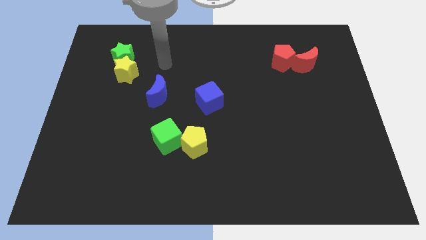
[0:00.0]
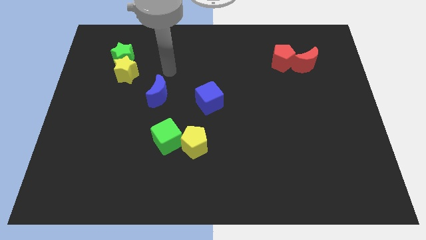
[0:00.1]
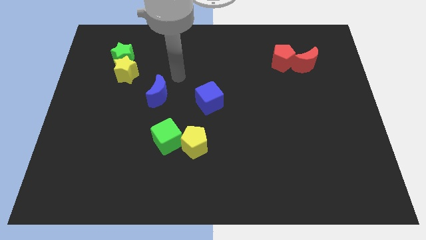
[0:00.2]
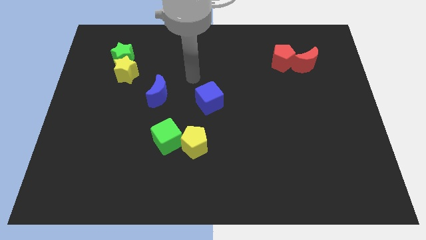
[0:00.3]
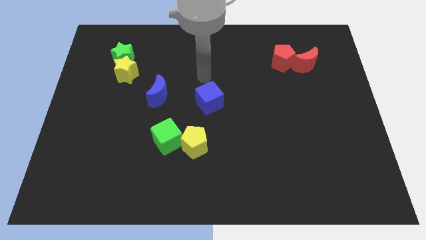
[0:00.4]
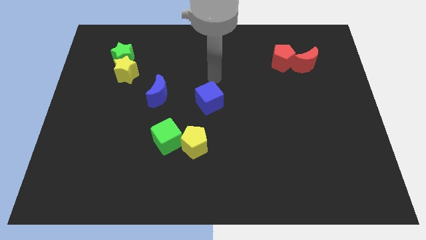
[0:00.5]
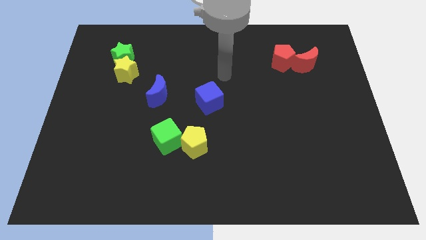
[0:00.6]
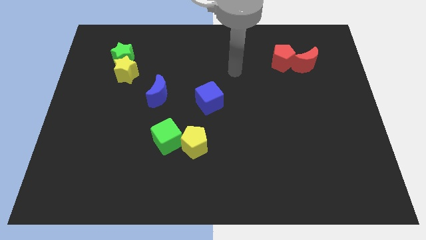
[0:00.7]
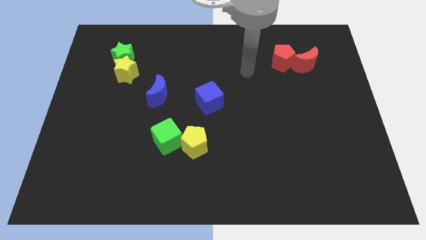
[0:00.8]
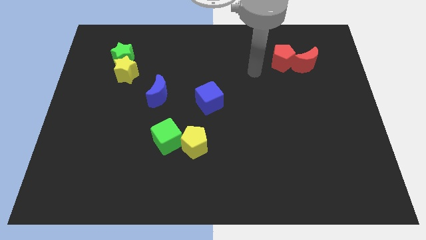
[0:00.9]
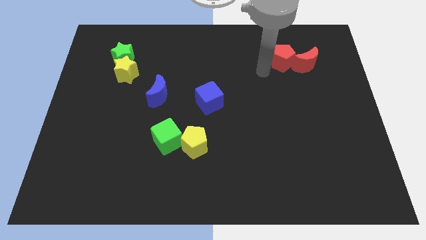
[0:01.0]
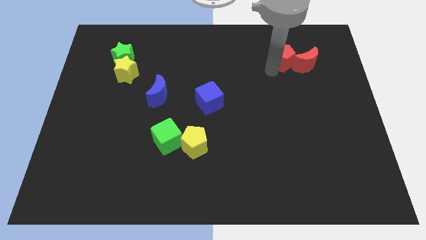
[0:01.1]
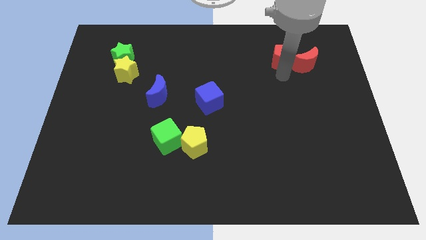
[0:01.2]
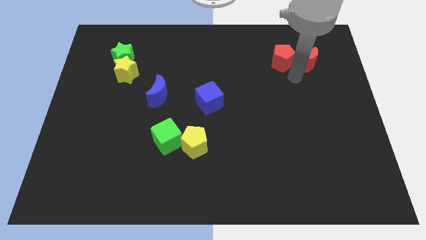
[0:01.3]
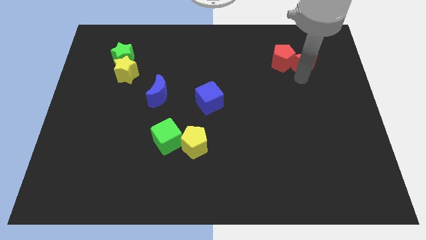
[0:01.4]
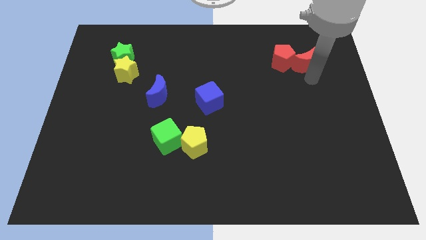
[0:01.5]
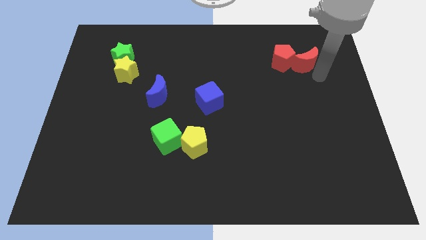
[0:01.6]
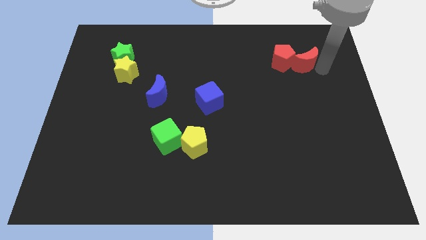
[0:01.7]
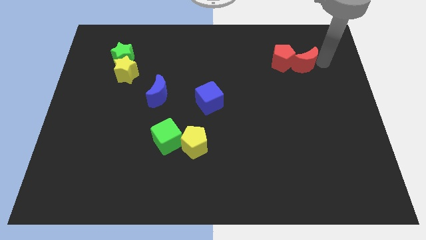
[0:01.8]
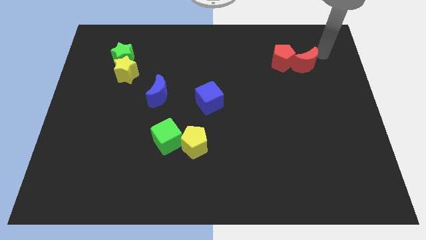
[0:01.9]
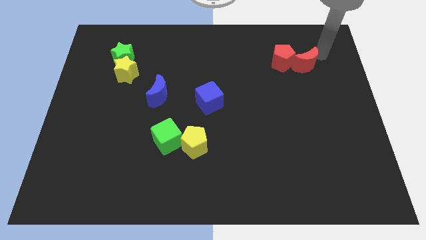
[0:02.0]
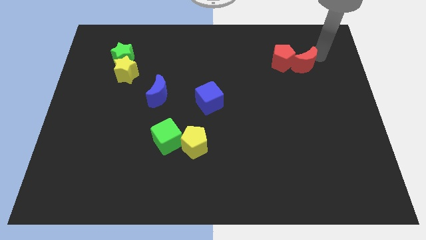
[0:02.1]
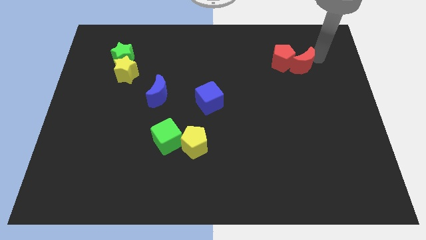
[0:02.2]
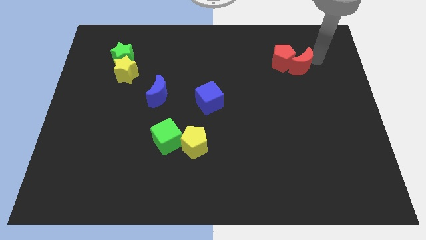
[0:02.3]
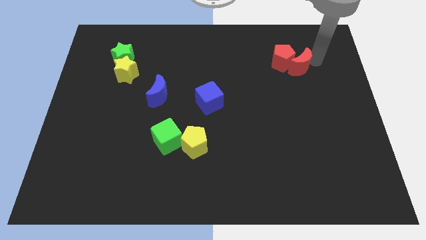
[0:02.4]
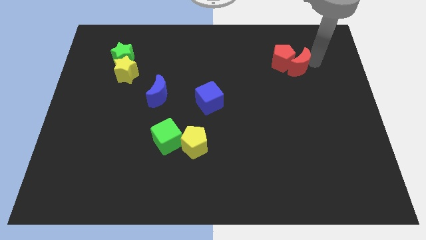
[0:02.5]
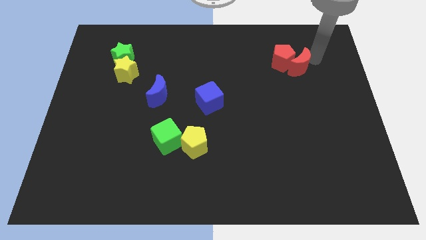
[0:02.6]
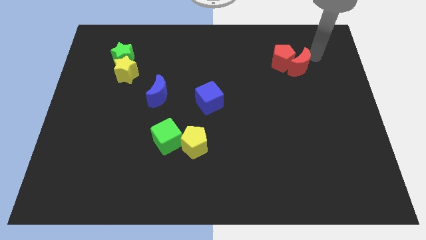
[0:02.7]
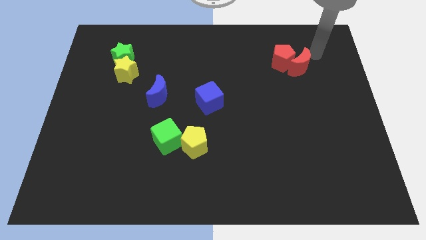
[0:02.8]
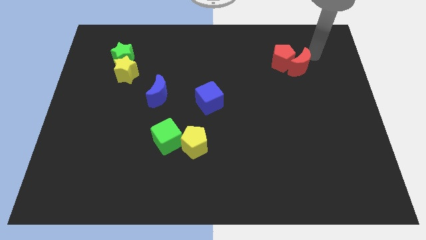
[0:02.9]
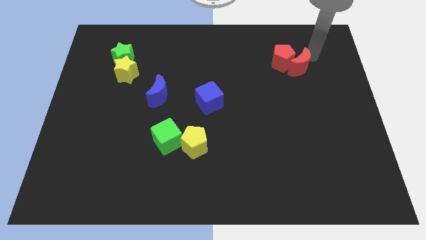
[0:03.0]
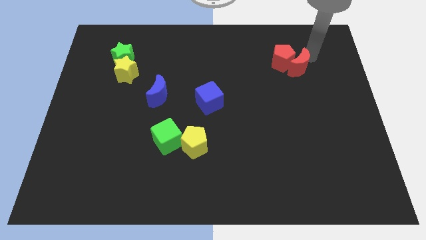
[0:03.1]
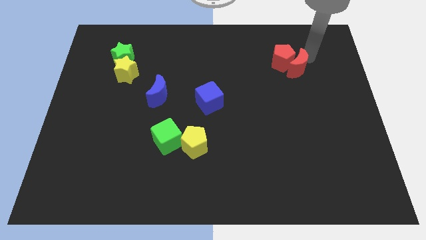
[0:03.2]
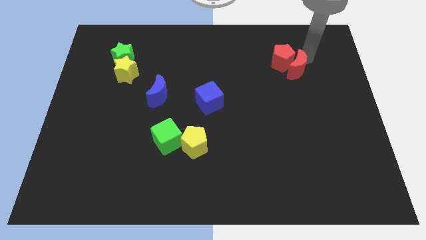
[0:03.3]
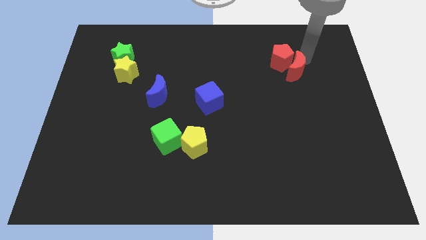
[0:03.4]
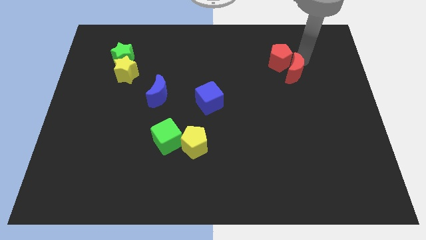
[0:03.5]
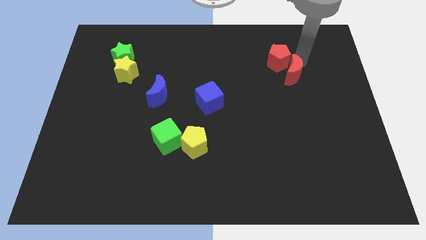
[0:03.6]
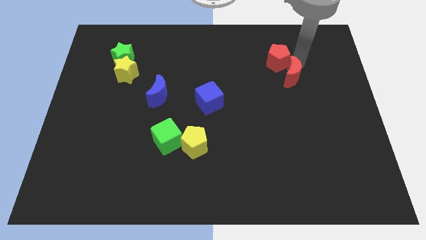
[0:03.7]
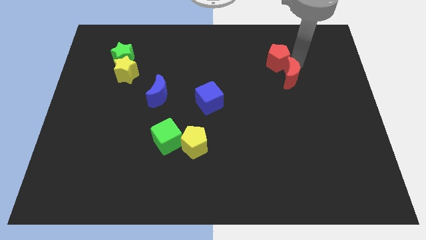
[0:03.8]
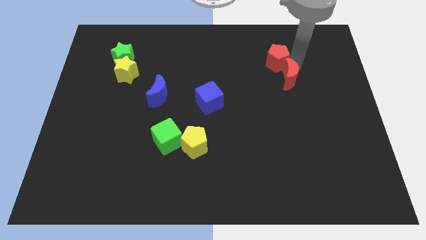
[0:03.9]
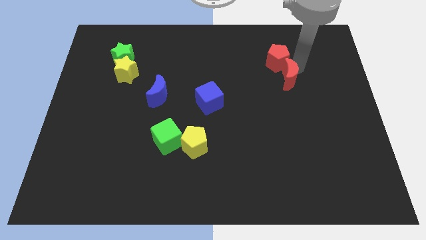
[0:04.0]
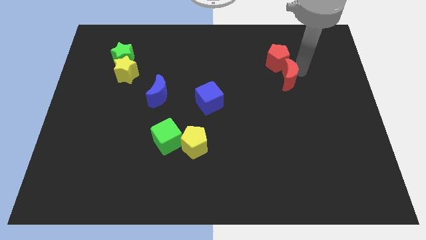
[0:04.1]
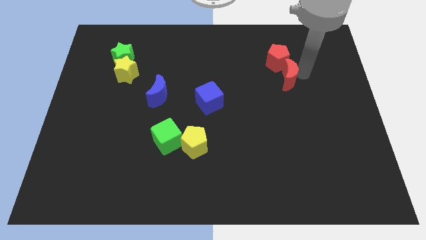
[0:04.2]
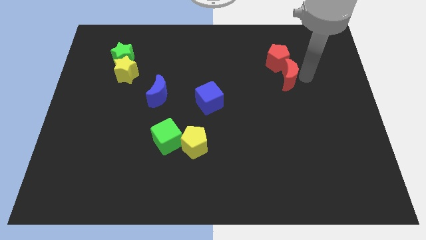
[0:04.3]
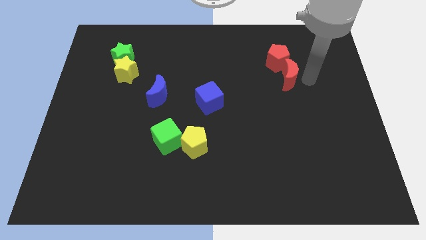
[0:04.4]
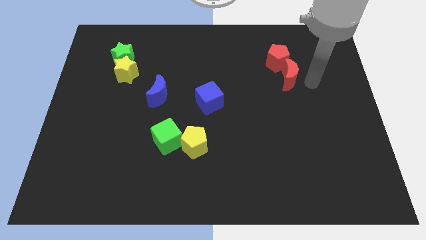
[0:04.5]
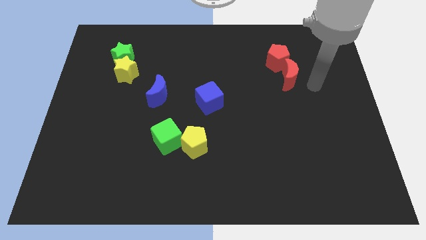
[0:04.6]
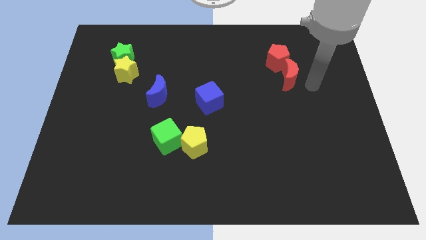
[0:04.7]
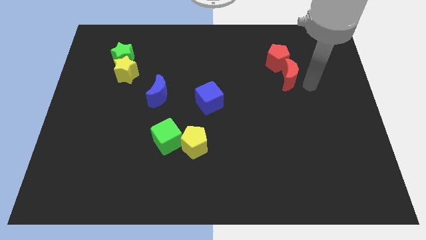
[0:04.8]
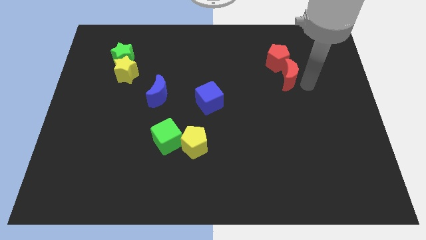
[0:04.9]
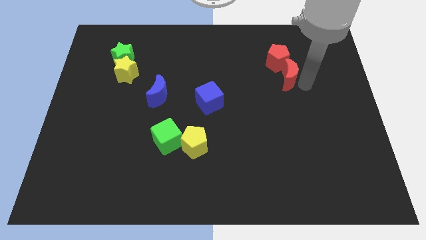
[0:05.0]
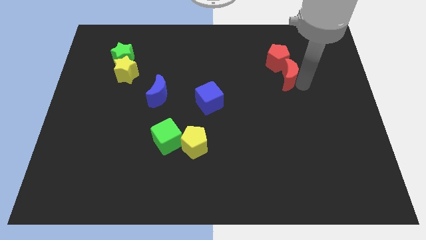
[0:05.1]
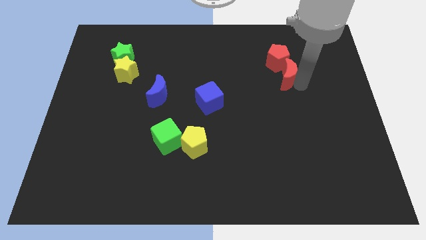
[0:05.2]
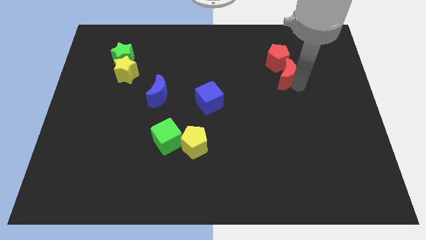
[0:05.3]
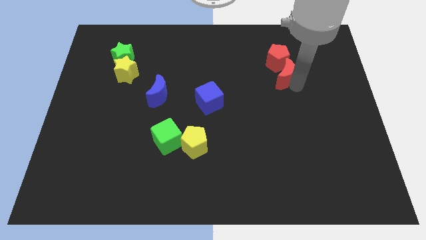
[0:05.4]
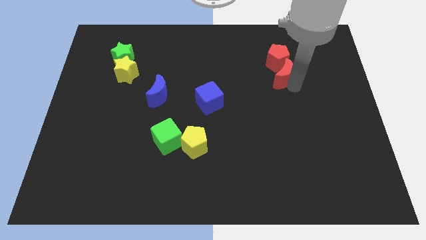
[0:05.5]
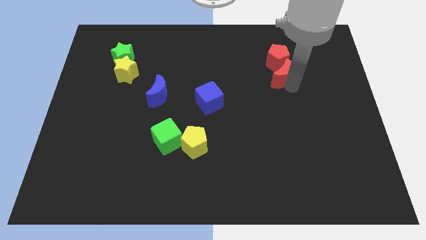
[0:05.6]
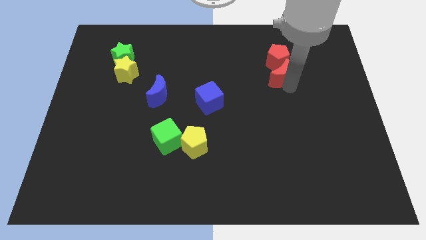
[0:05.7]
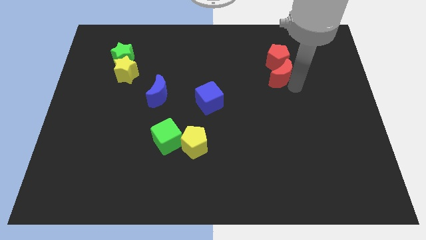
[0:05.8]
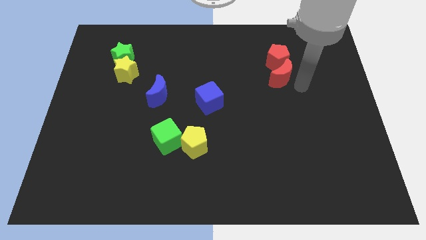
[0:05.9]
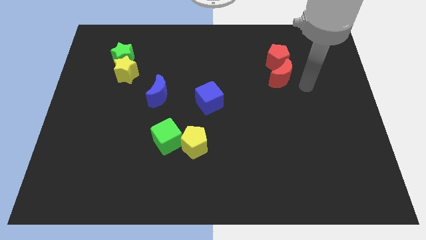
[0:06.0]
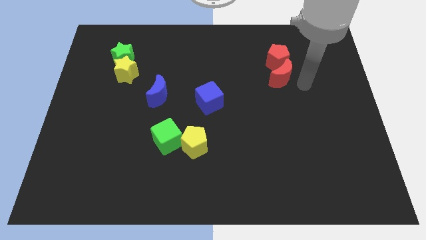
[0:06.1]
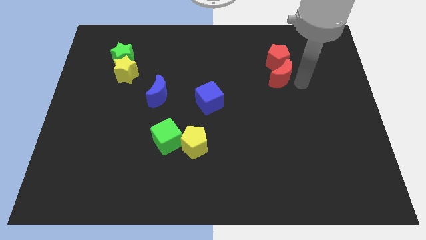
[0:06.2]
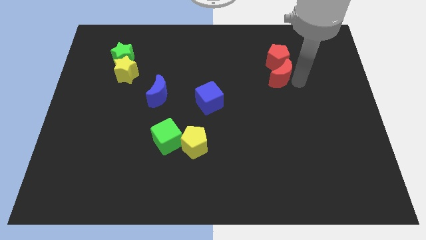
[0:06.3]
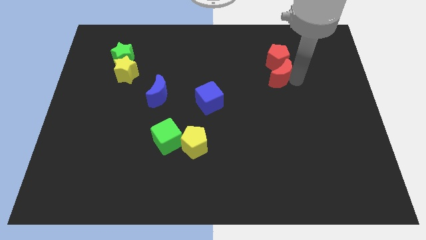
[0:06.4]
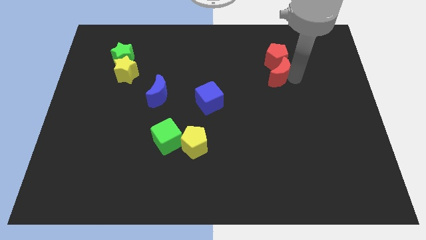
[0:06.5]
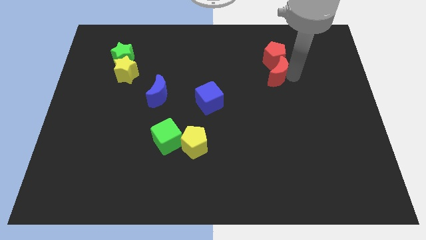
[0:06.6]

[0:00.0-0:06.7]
move the red moon a bit left

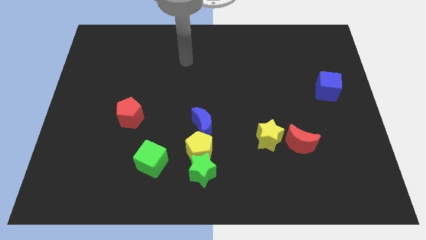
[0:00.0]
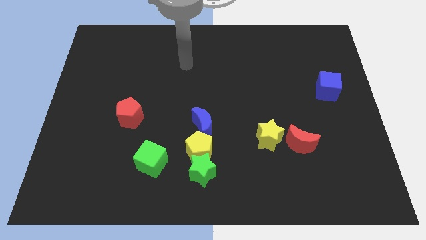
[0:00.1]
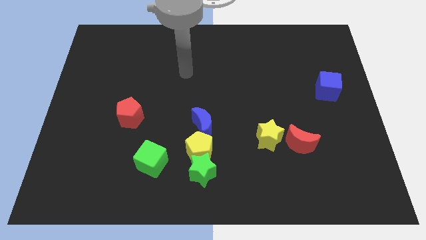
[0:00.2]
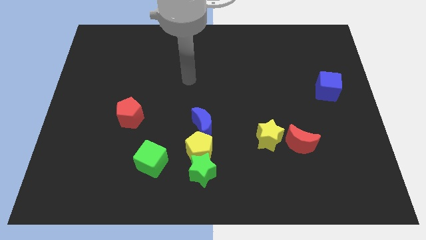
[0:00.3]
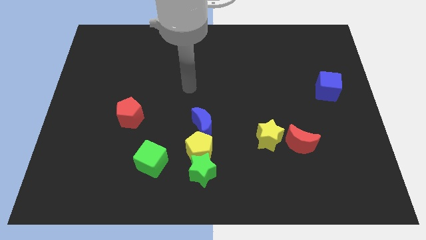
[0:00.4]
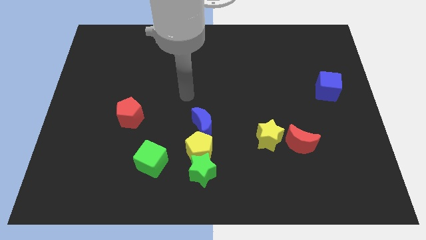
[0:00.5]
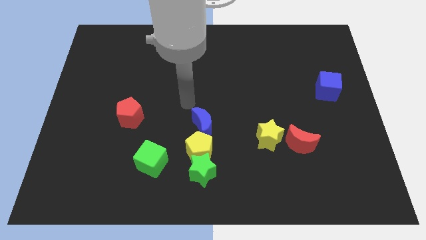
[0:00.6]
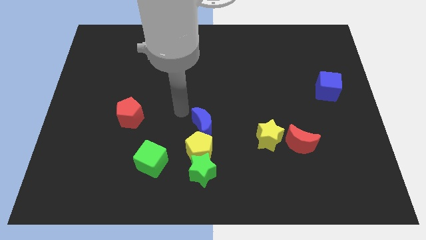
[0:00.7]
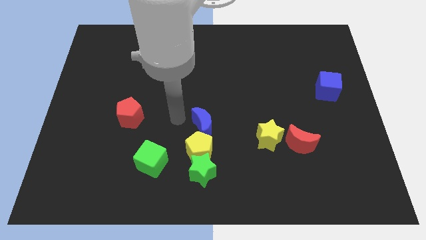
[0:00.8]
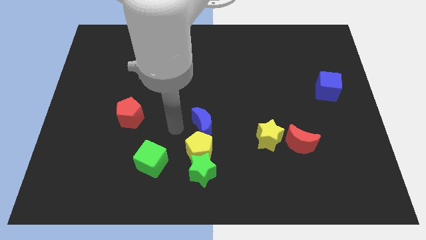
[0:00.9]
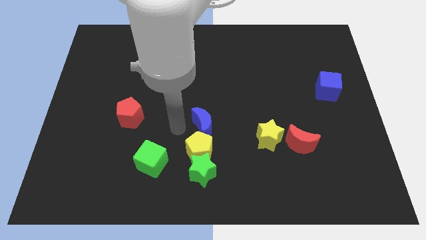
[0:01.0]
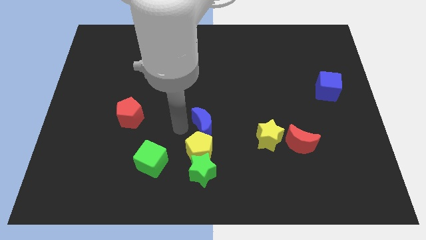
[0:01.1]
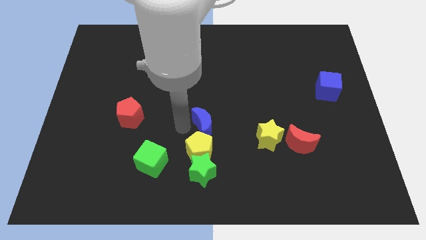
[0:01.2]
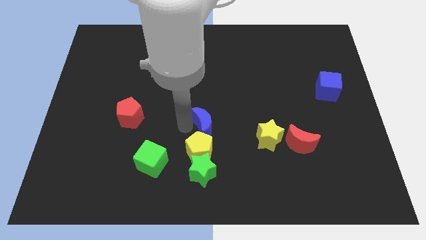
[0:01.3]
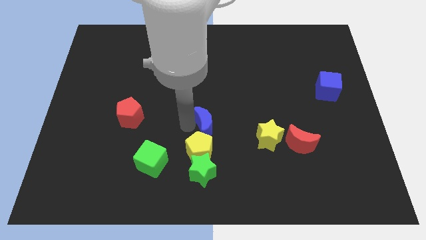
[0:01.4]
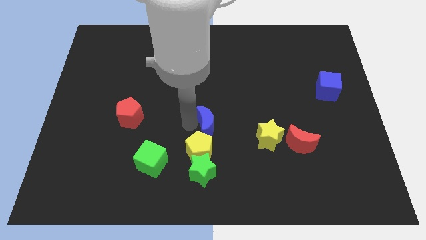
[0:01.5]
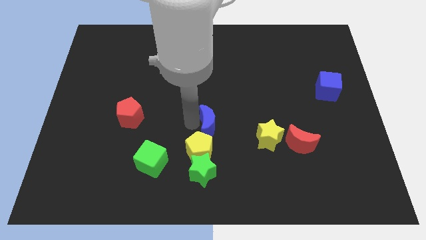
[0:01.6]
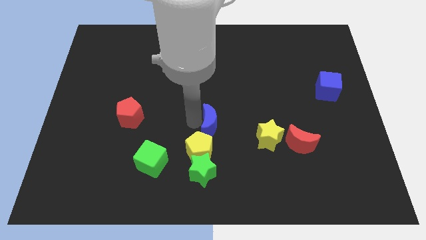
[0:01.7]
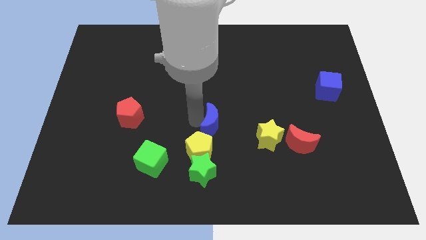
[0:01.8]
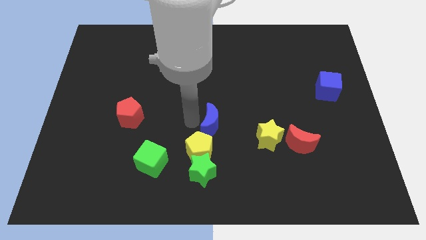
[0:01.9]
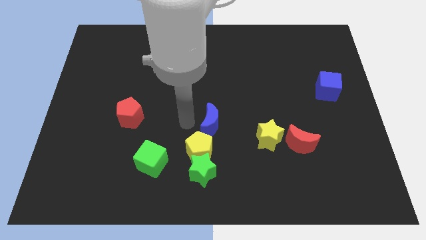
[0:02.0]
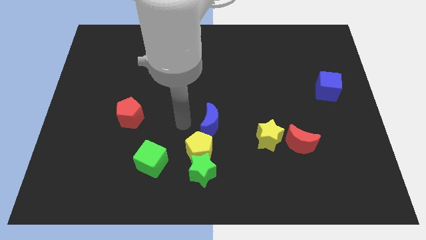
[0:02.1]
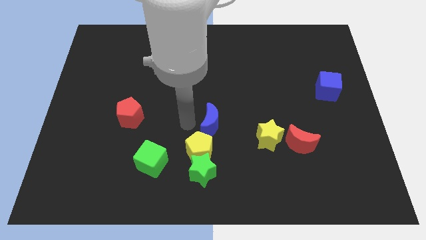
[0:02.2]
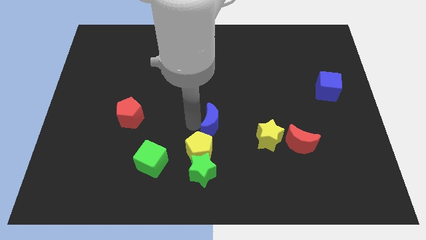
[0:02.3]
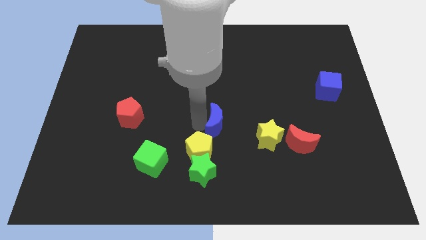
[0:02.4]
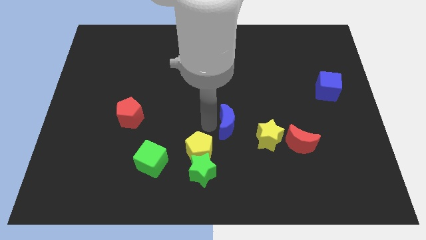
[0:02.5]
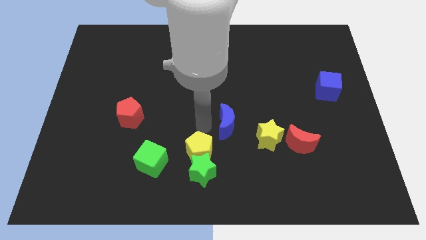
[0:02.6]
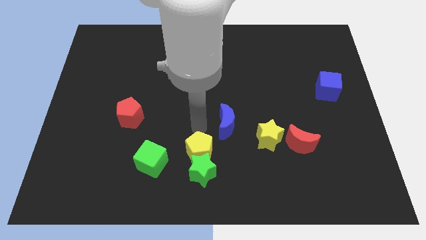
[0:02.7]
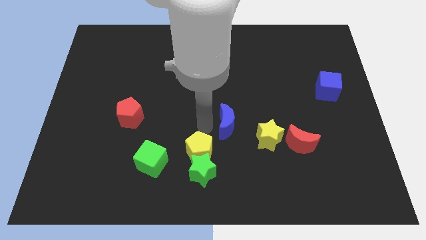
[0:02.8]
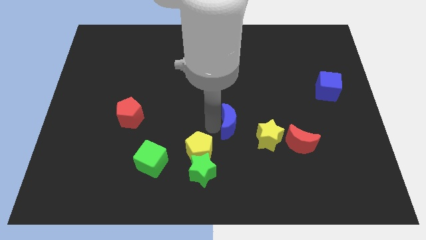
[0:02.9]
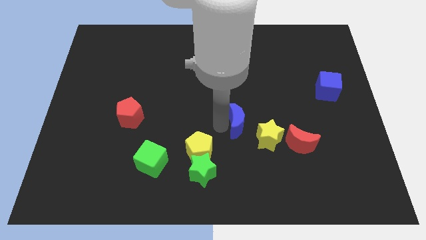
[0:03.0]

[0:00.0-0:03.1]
push the blue moon to the right a little bit
